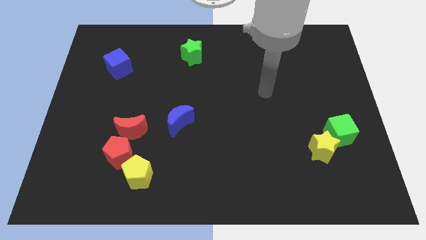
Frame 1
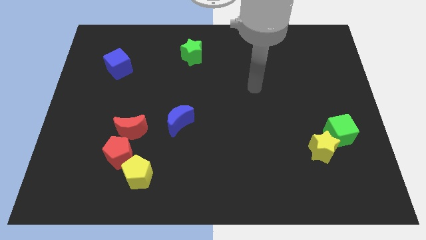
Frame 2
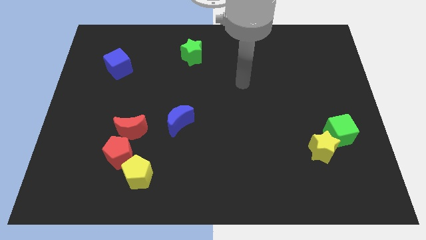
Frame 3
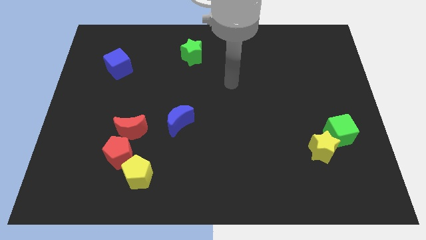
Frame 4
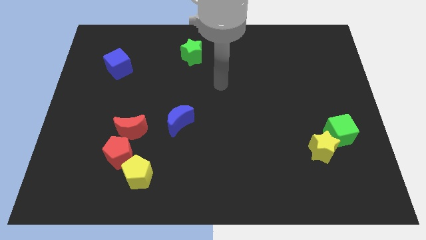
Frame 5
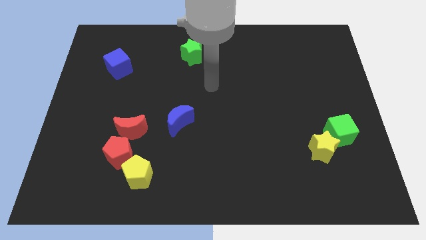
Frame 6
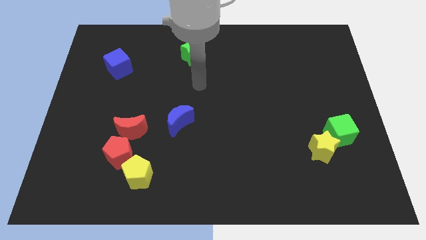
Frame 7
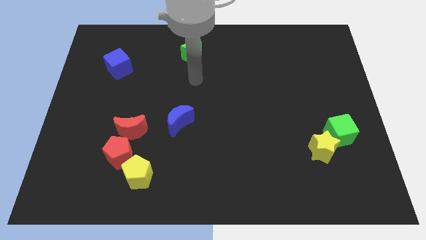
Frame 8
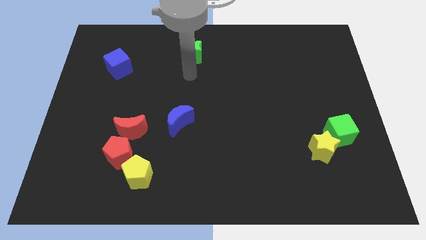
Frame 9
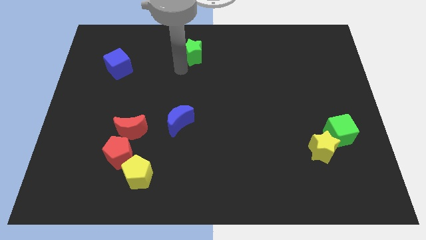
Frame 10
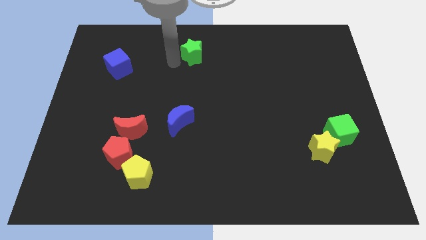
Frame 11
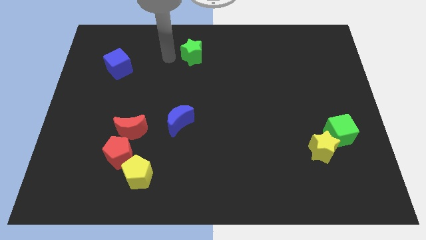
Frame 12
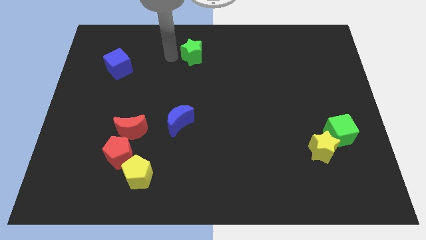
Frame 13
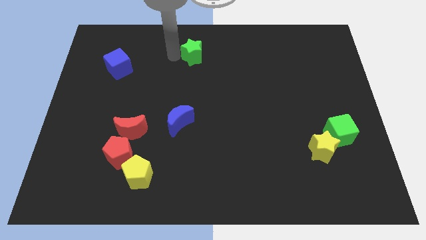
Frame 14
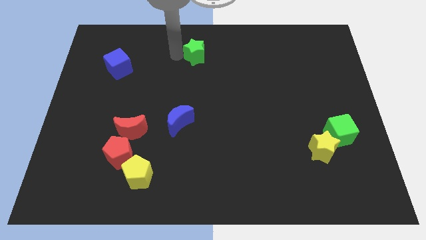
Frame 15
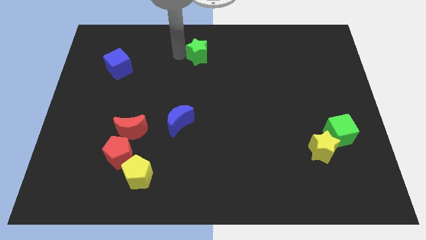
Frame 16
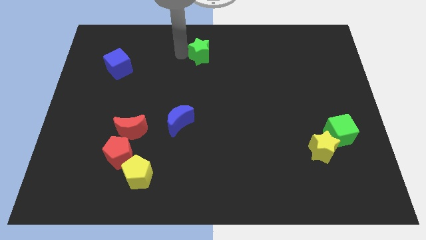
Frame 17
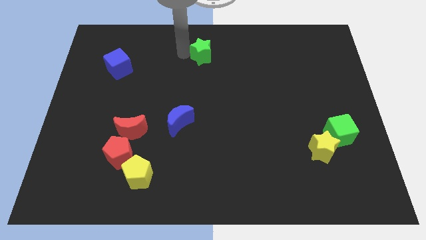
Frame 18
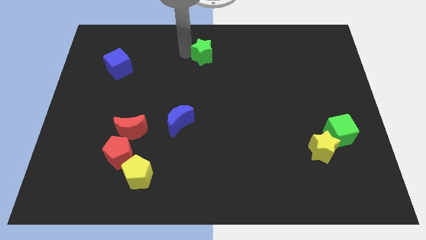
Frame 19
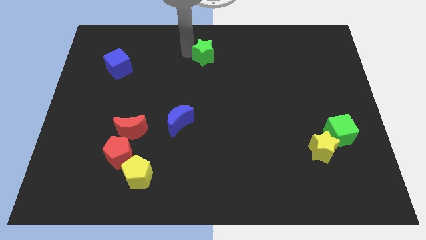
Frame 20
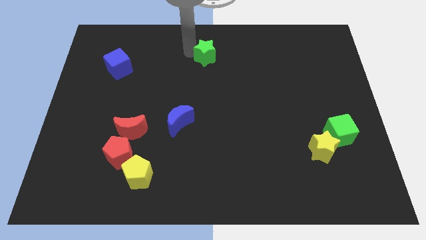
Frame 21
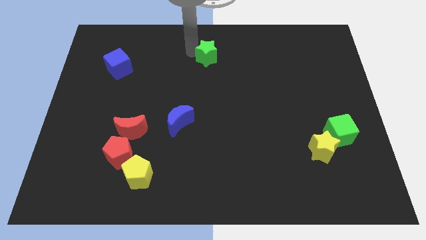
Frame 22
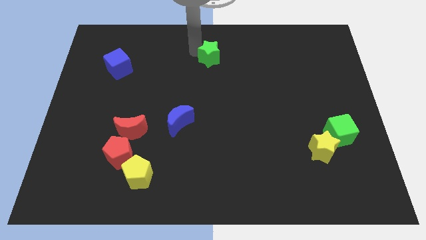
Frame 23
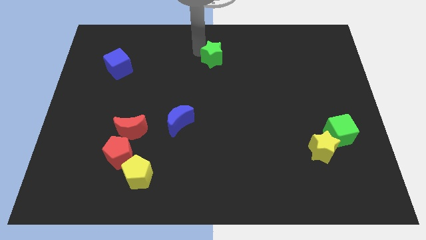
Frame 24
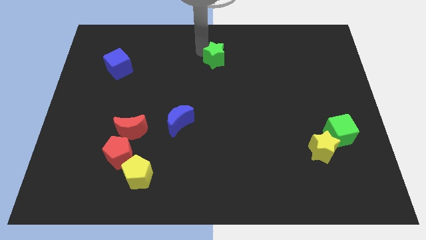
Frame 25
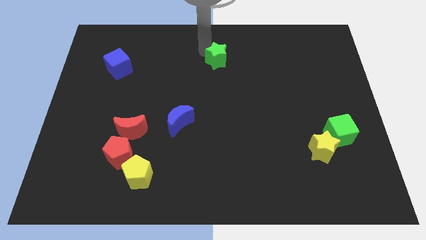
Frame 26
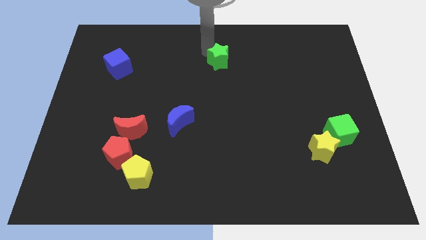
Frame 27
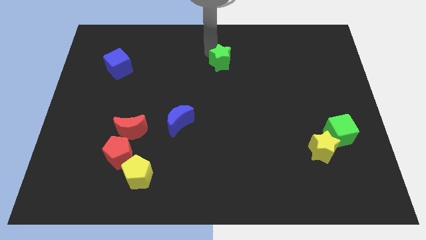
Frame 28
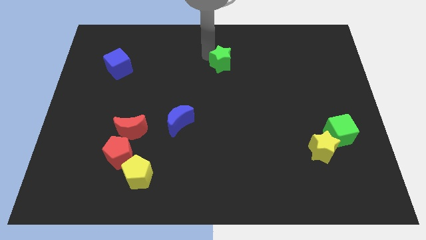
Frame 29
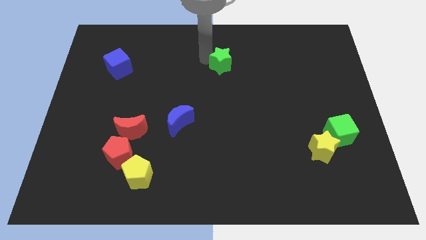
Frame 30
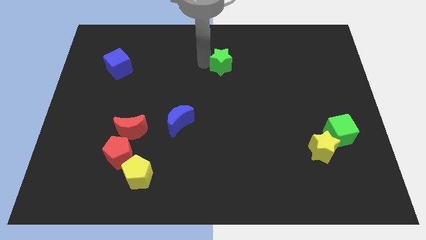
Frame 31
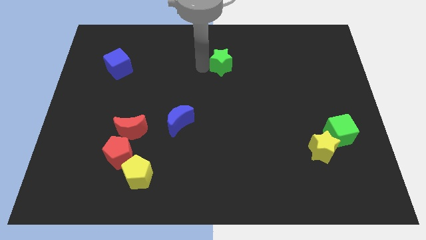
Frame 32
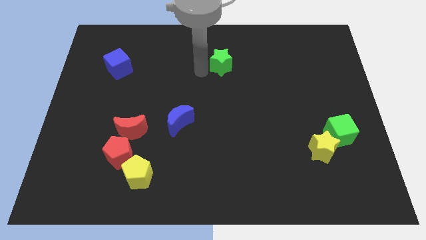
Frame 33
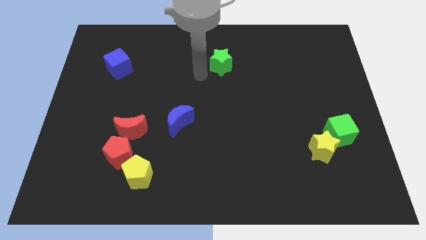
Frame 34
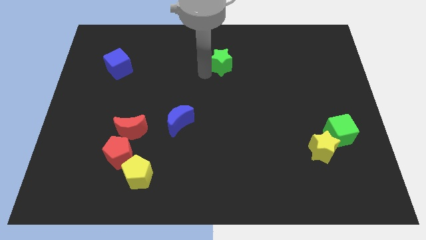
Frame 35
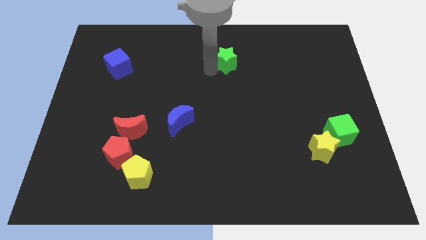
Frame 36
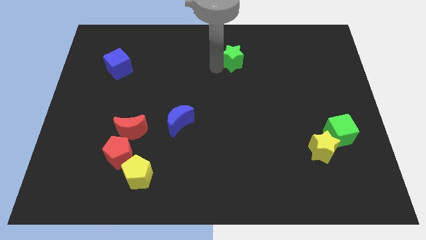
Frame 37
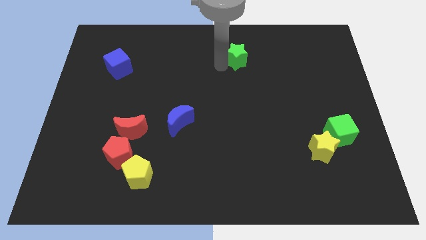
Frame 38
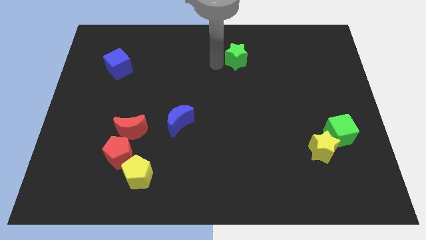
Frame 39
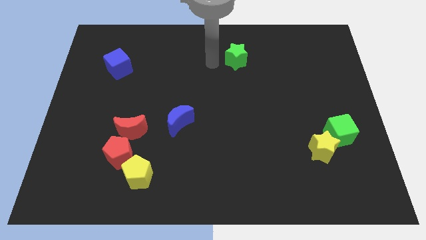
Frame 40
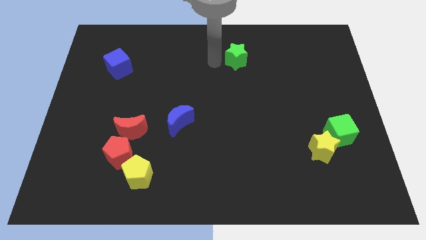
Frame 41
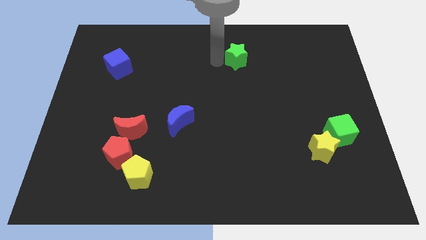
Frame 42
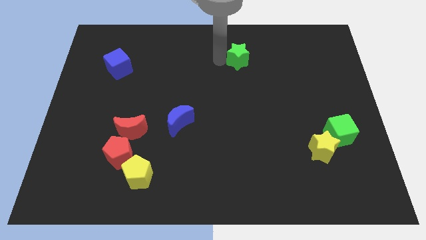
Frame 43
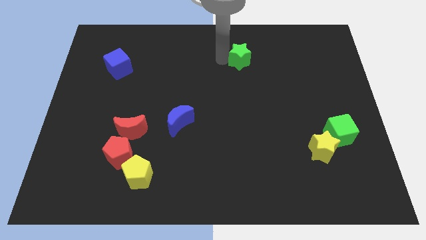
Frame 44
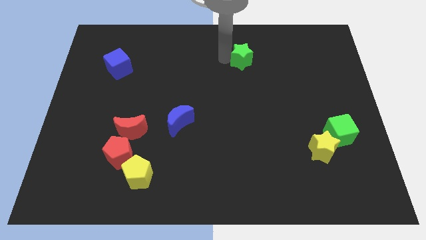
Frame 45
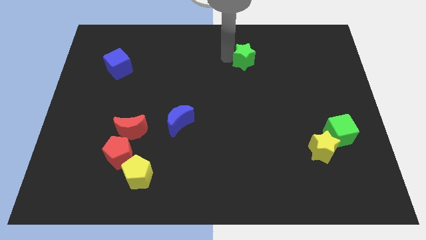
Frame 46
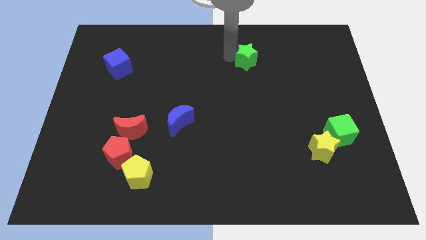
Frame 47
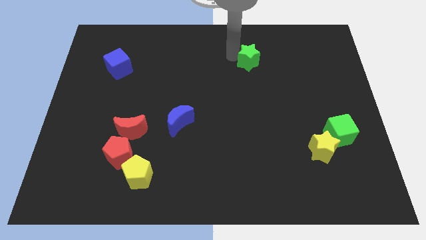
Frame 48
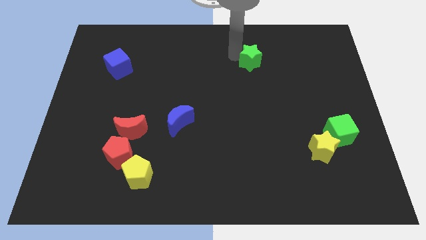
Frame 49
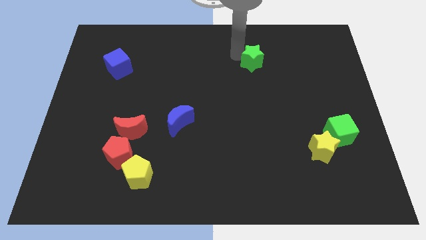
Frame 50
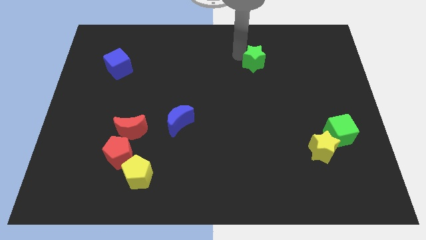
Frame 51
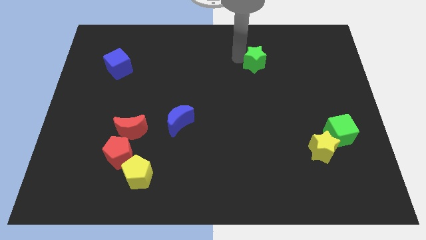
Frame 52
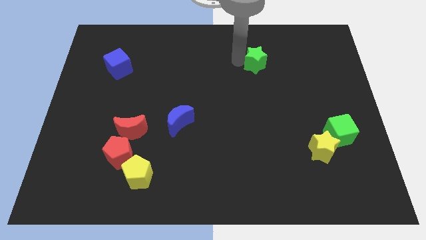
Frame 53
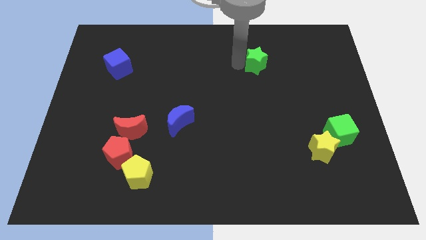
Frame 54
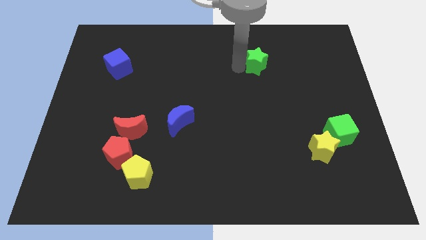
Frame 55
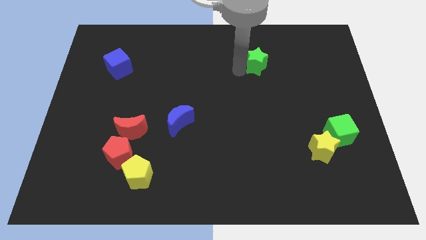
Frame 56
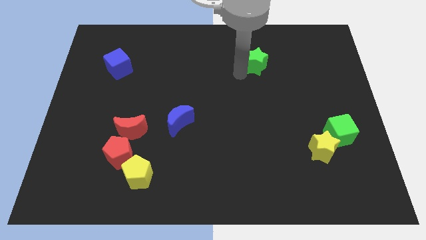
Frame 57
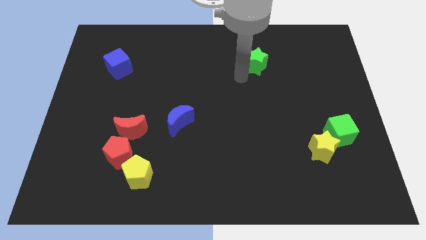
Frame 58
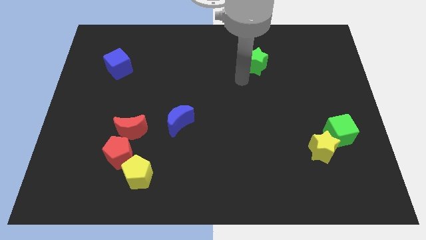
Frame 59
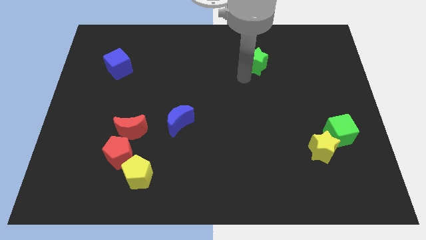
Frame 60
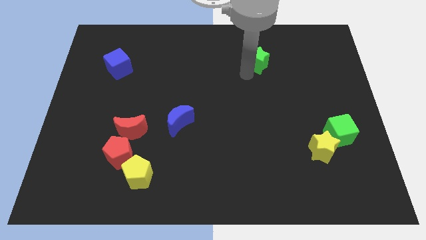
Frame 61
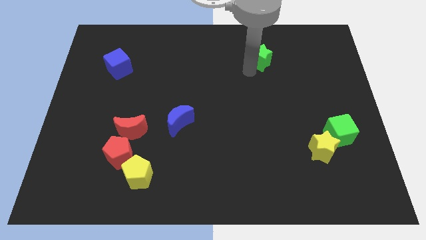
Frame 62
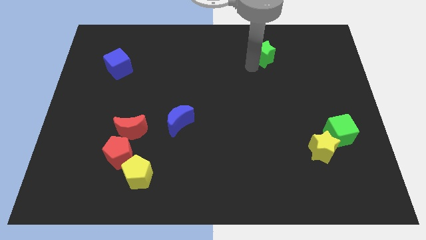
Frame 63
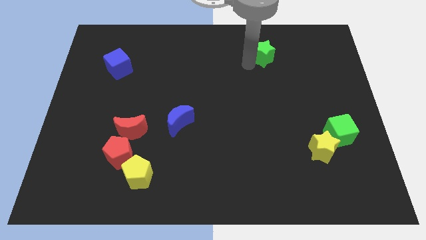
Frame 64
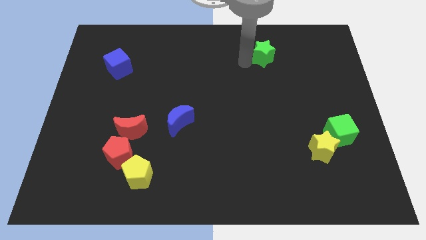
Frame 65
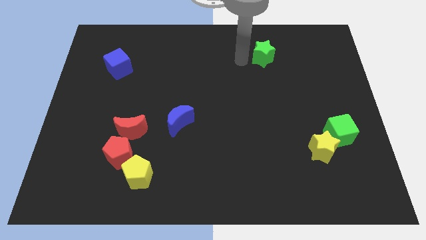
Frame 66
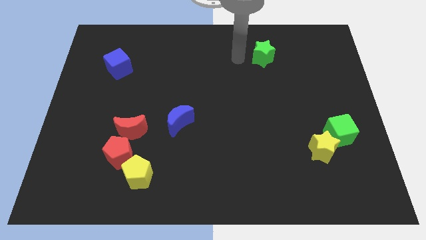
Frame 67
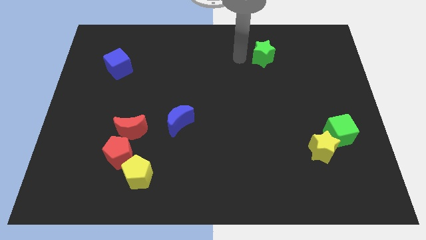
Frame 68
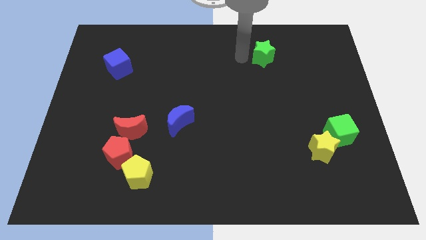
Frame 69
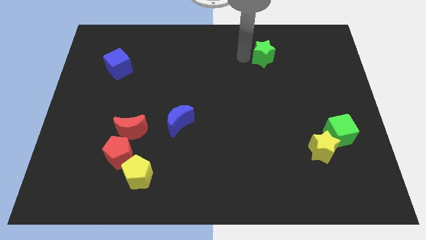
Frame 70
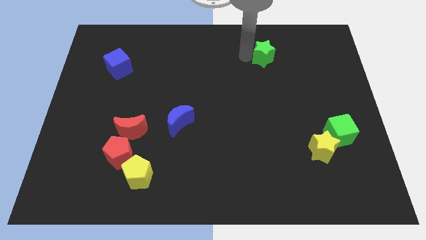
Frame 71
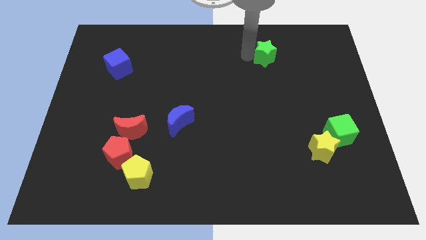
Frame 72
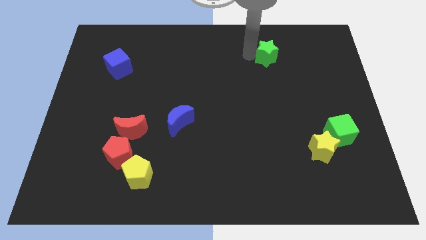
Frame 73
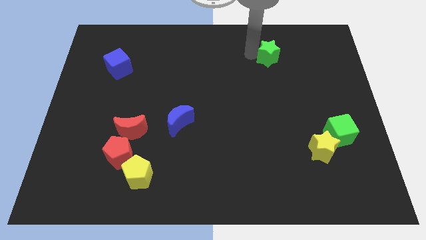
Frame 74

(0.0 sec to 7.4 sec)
slide the green star to the right

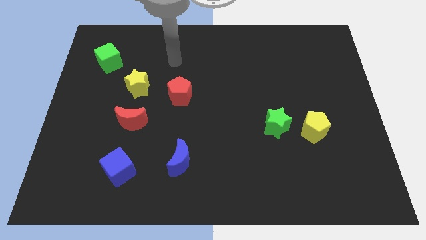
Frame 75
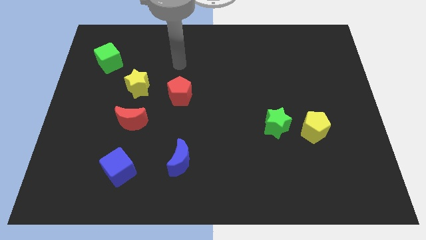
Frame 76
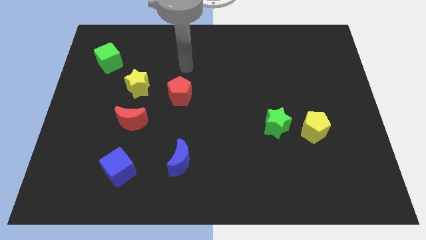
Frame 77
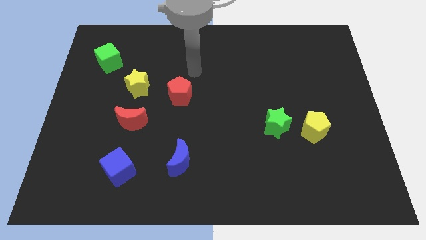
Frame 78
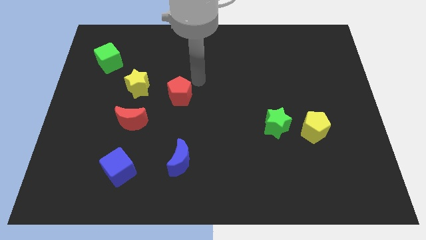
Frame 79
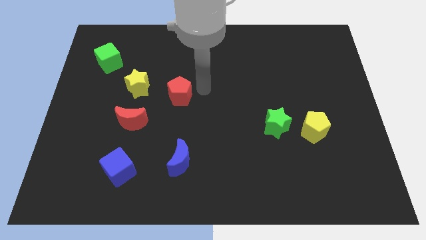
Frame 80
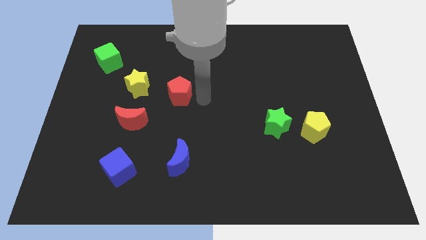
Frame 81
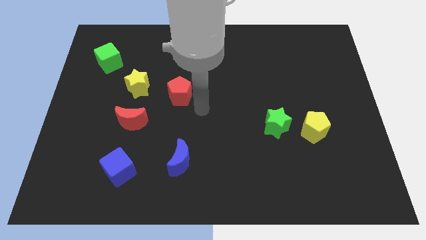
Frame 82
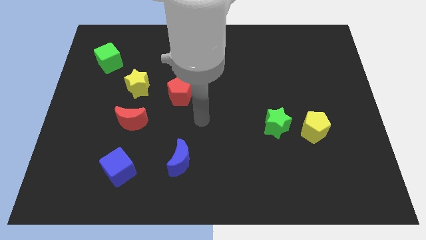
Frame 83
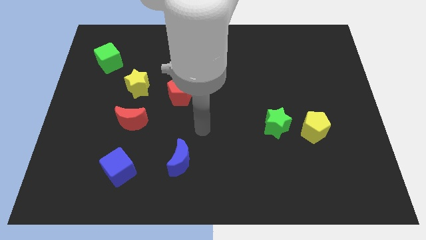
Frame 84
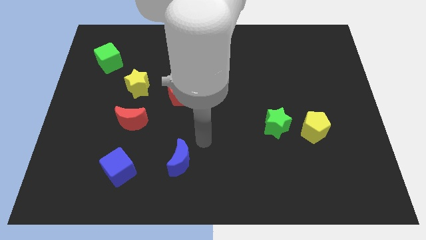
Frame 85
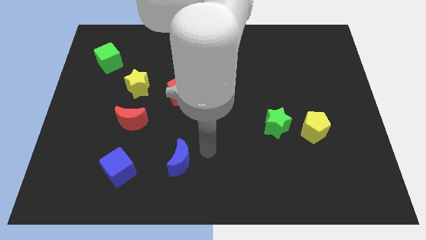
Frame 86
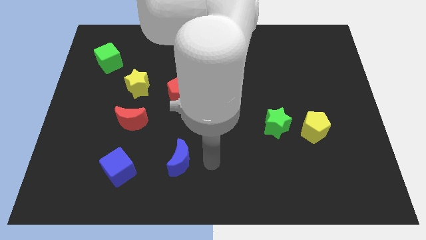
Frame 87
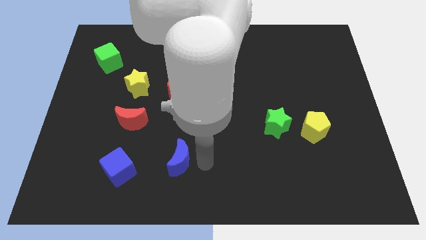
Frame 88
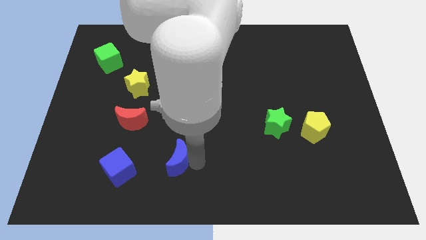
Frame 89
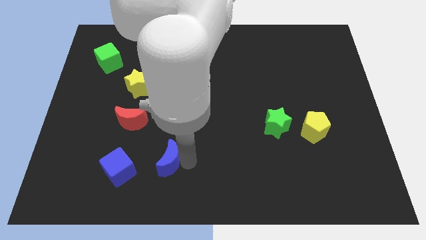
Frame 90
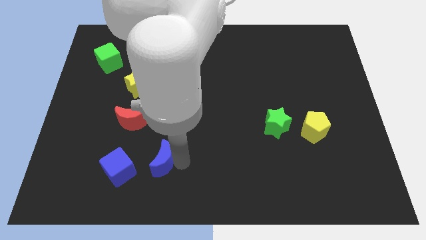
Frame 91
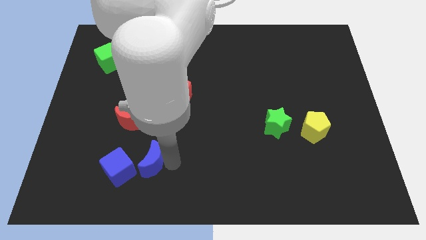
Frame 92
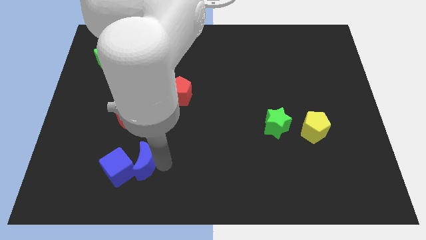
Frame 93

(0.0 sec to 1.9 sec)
slightly slide the blue moon left
